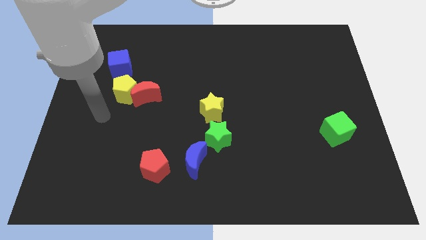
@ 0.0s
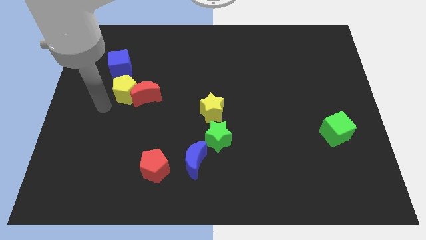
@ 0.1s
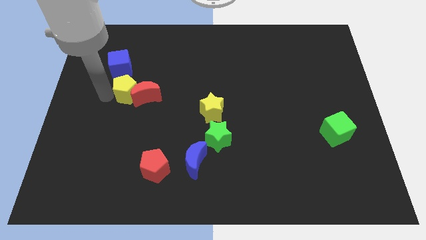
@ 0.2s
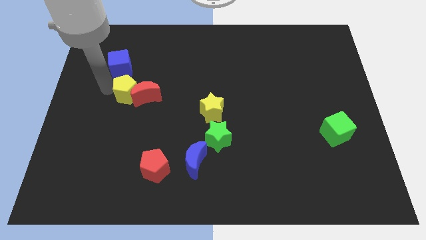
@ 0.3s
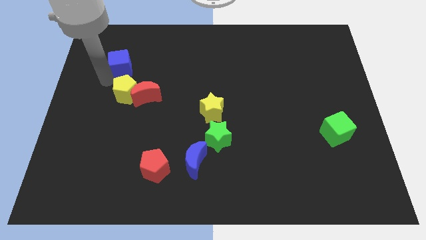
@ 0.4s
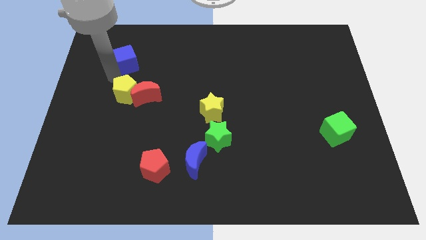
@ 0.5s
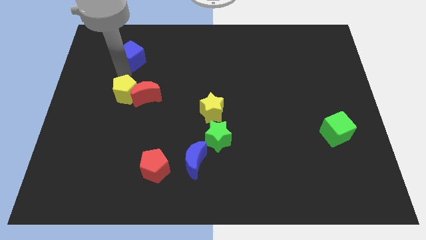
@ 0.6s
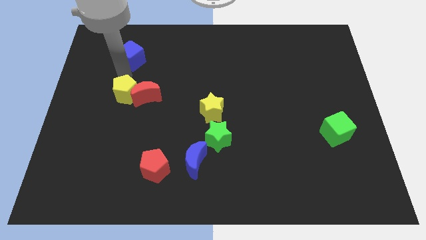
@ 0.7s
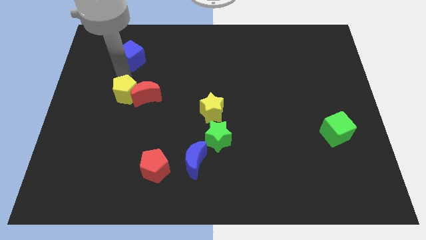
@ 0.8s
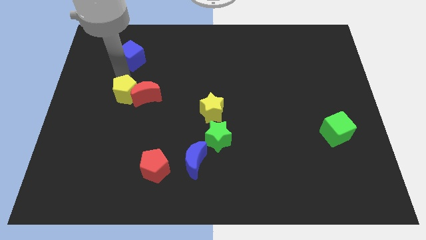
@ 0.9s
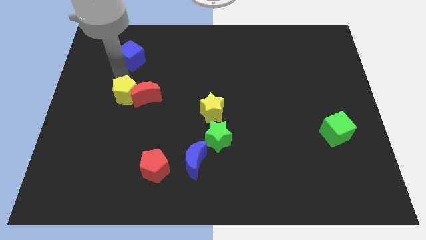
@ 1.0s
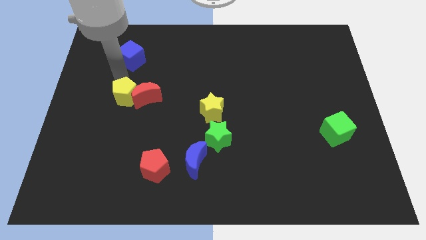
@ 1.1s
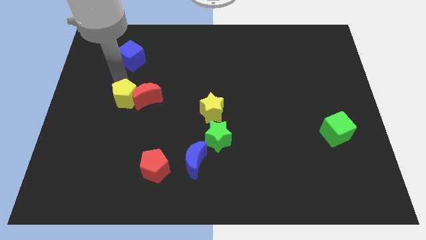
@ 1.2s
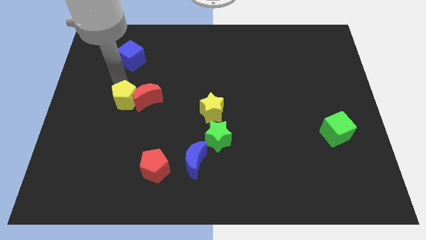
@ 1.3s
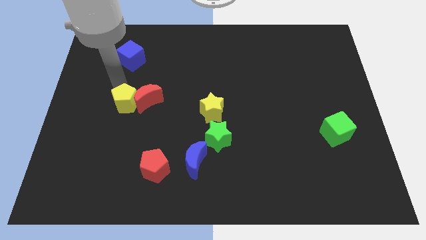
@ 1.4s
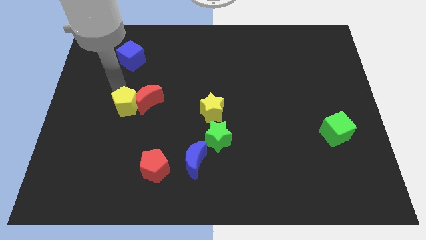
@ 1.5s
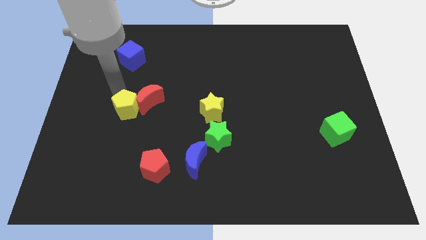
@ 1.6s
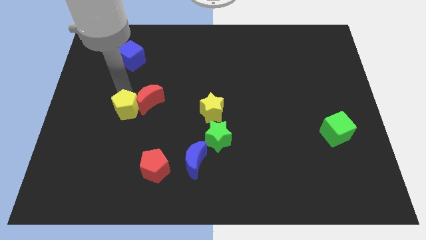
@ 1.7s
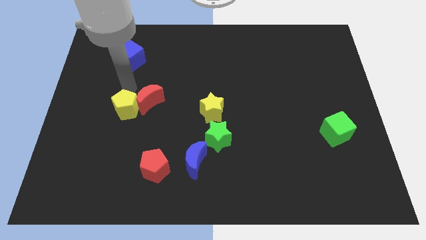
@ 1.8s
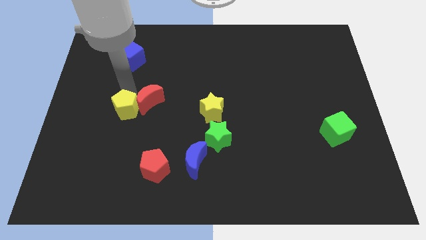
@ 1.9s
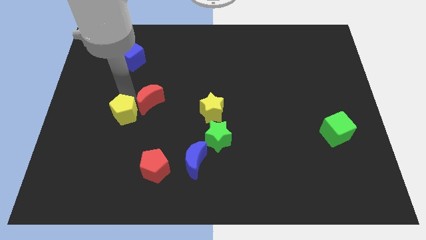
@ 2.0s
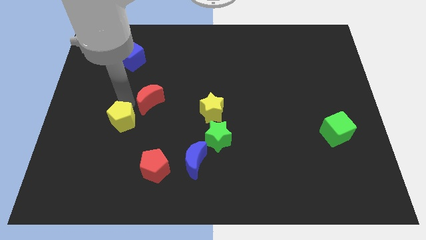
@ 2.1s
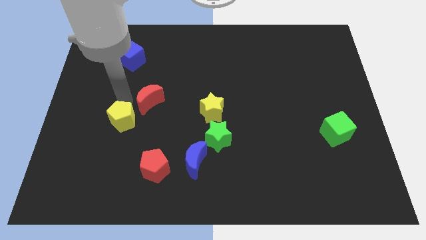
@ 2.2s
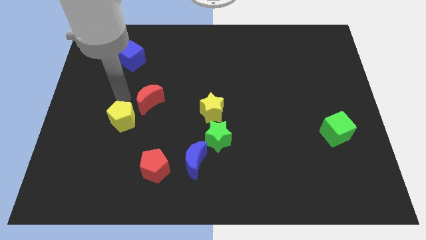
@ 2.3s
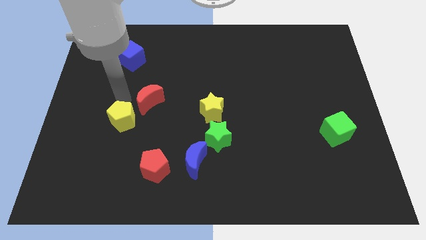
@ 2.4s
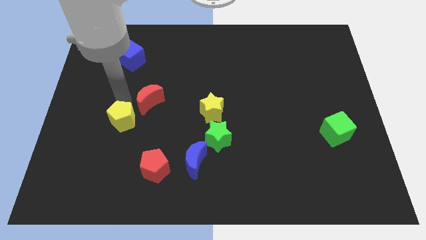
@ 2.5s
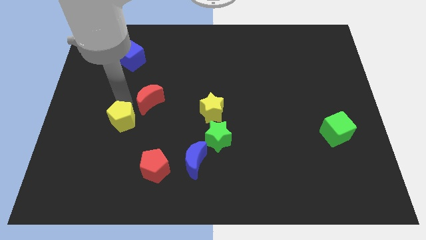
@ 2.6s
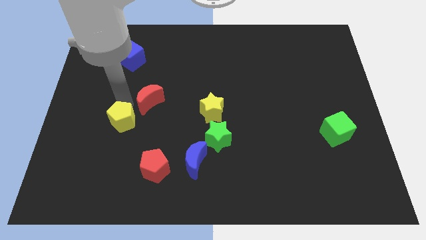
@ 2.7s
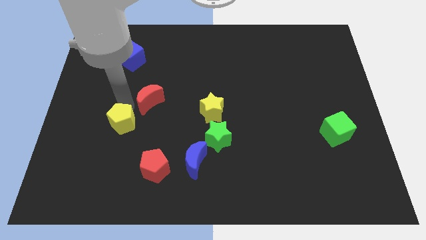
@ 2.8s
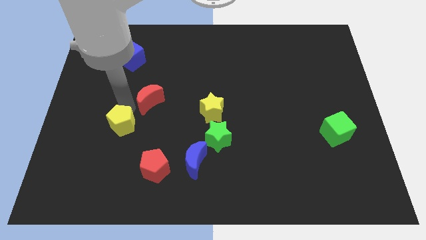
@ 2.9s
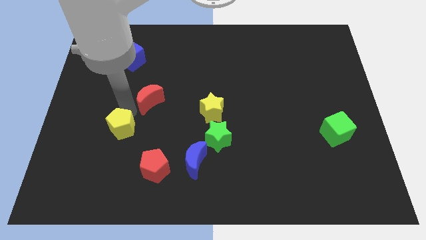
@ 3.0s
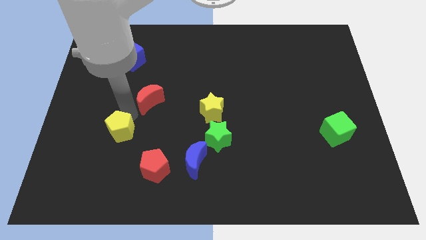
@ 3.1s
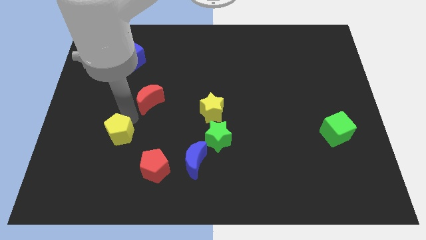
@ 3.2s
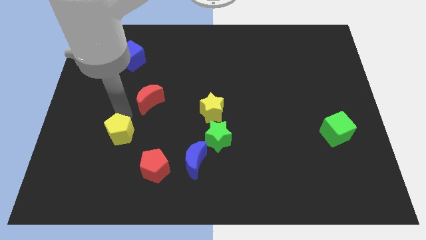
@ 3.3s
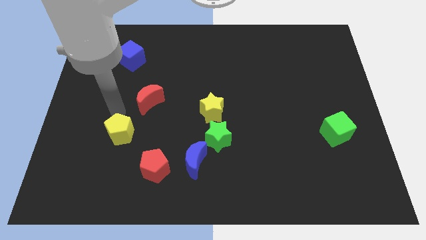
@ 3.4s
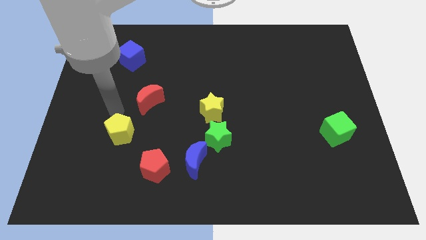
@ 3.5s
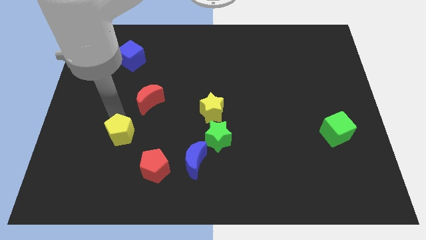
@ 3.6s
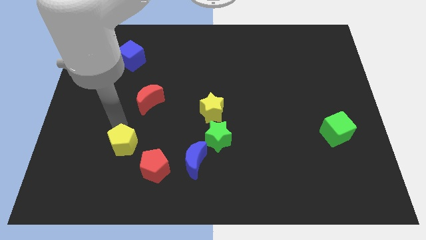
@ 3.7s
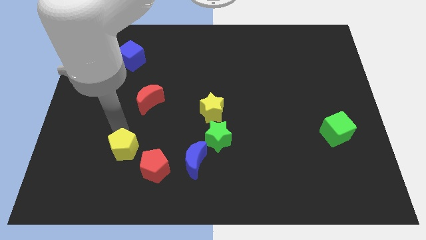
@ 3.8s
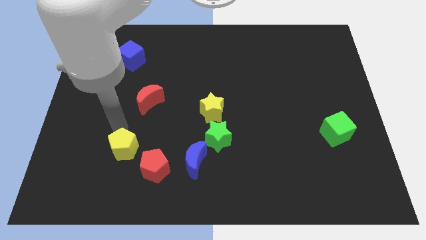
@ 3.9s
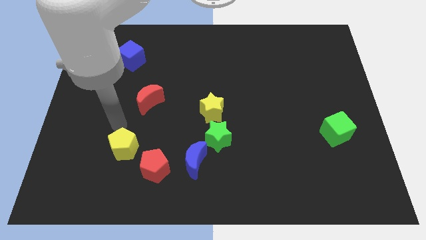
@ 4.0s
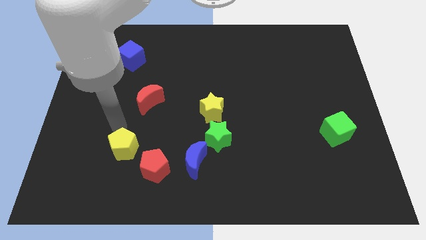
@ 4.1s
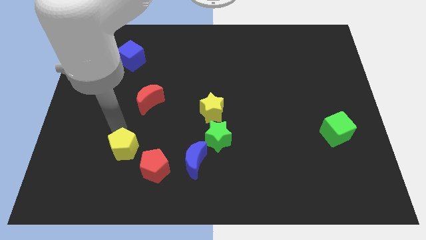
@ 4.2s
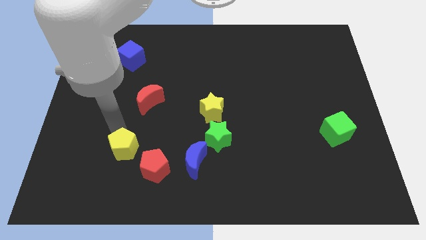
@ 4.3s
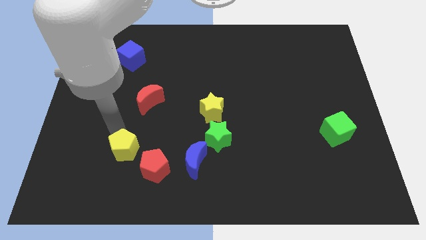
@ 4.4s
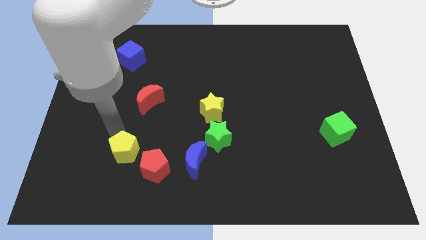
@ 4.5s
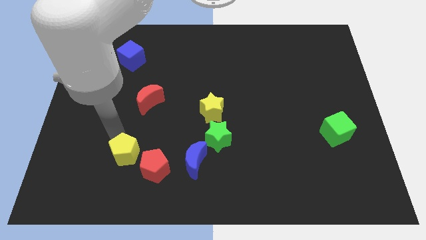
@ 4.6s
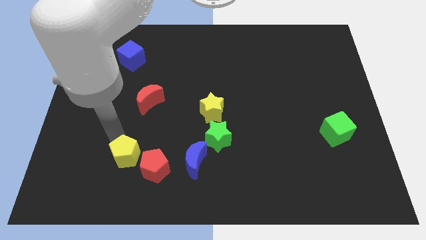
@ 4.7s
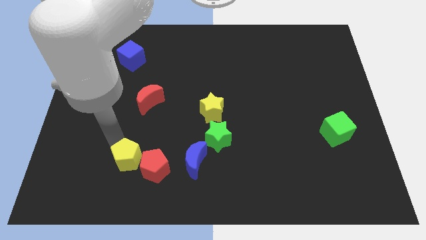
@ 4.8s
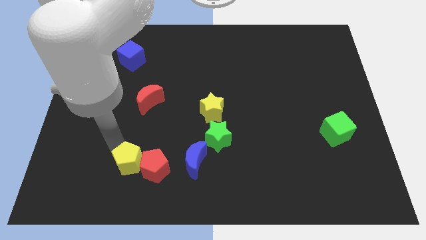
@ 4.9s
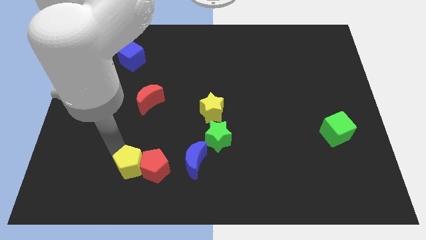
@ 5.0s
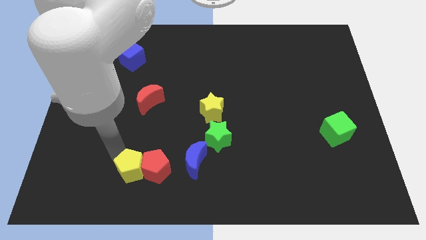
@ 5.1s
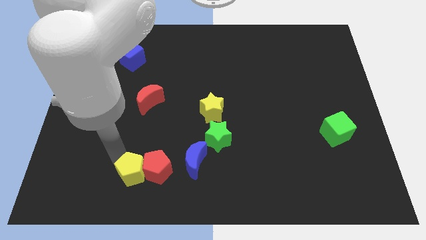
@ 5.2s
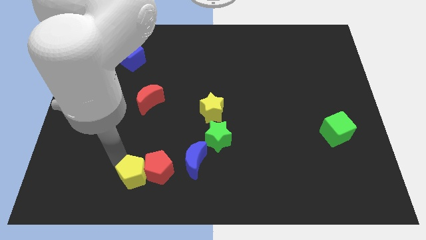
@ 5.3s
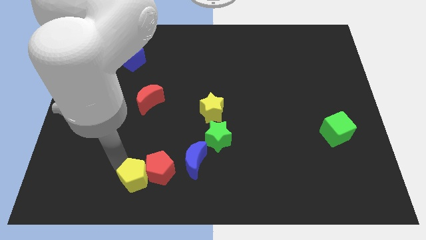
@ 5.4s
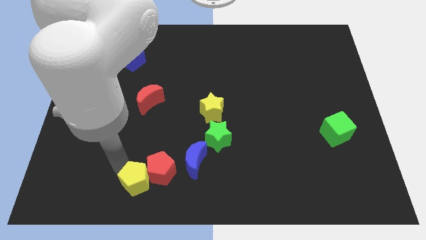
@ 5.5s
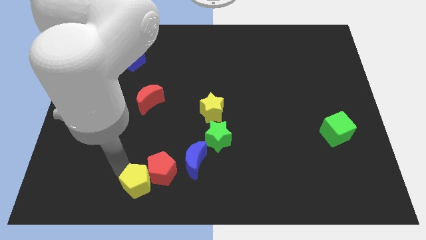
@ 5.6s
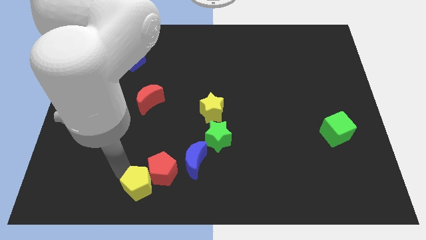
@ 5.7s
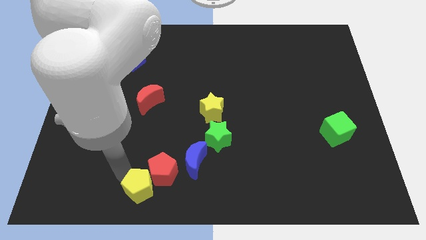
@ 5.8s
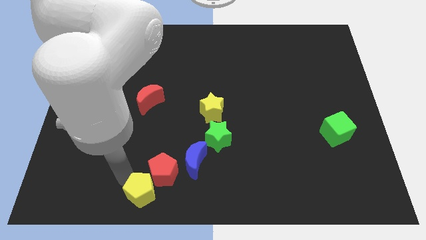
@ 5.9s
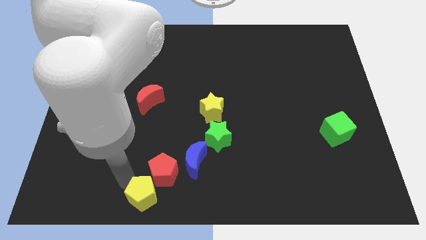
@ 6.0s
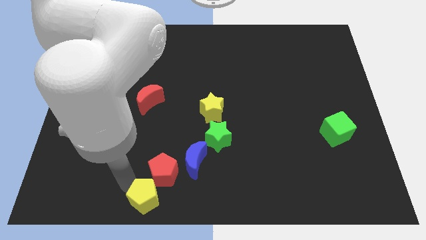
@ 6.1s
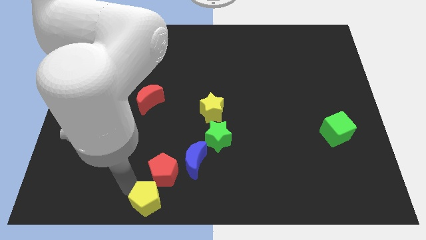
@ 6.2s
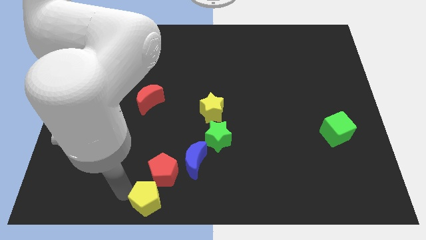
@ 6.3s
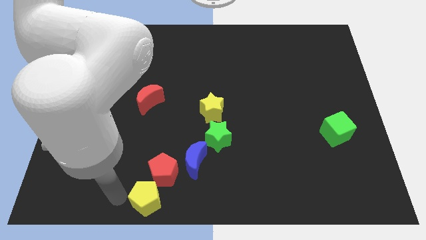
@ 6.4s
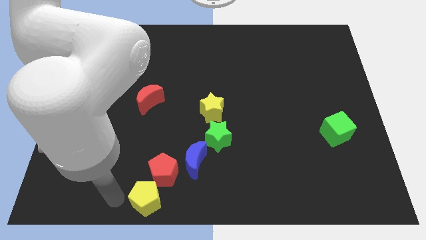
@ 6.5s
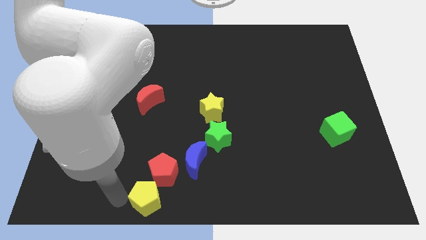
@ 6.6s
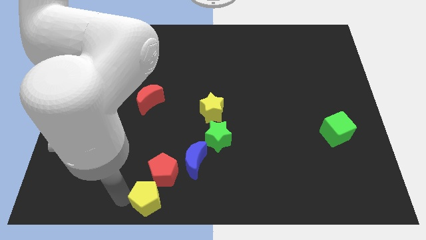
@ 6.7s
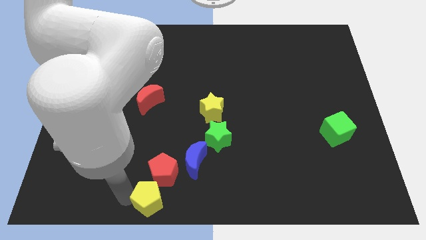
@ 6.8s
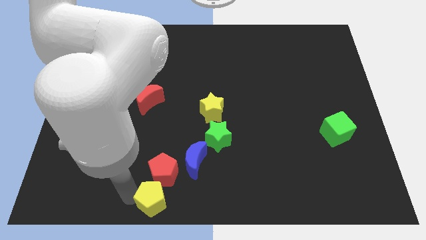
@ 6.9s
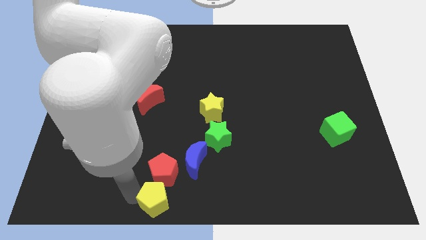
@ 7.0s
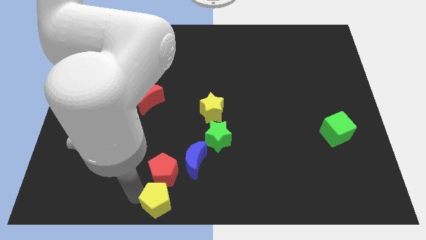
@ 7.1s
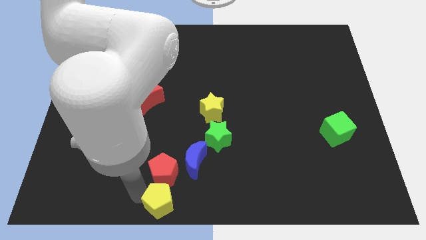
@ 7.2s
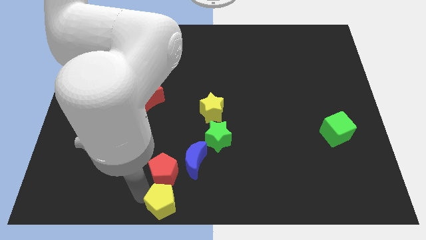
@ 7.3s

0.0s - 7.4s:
slide the yellow pentagon down and to the right diagonally

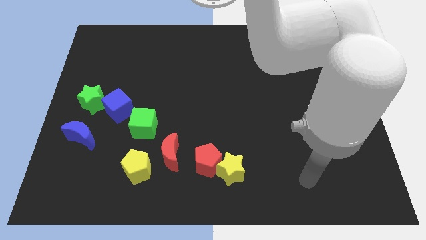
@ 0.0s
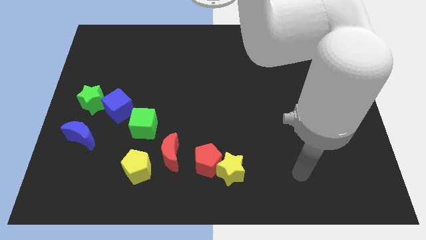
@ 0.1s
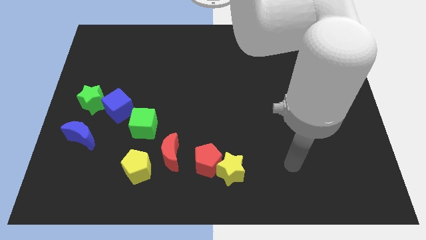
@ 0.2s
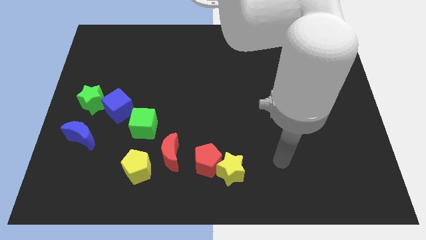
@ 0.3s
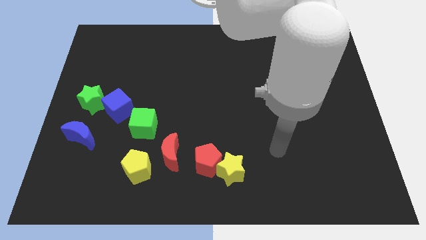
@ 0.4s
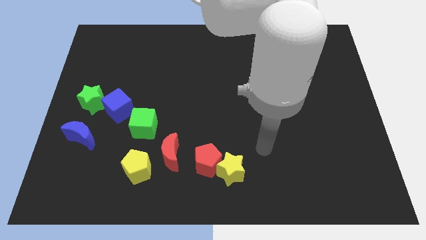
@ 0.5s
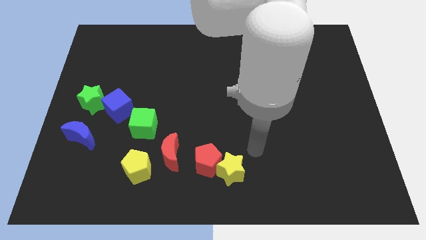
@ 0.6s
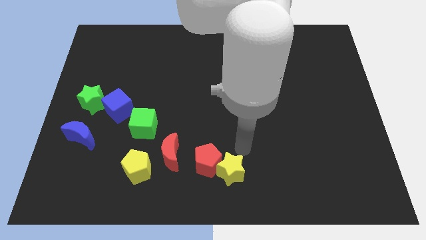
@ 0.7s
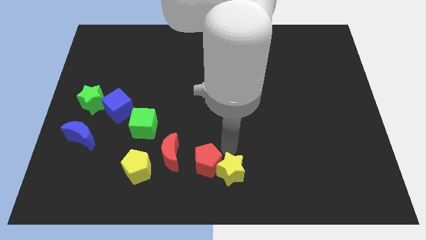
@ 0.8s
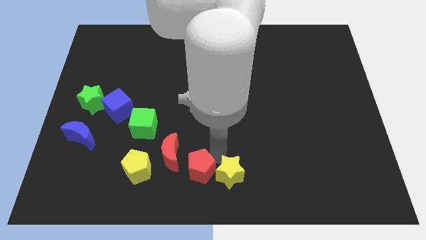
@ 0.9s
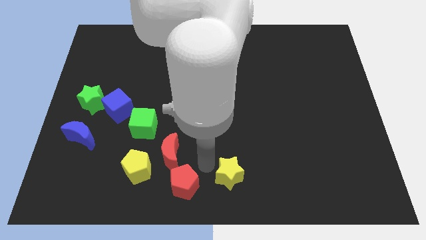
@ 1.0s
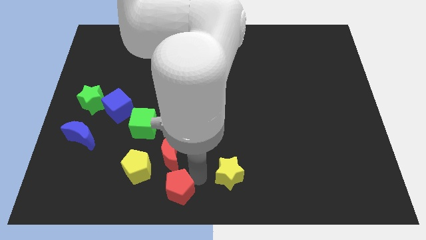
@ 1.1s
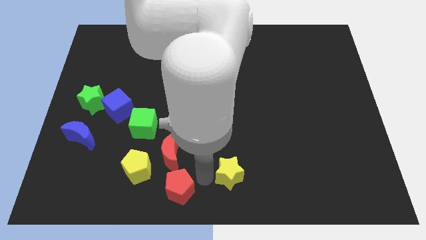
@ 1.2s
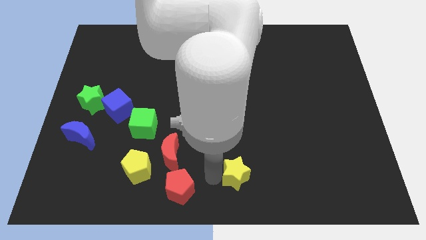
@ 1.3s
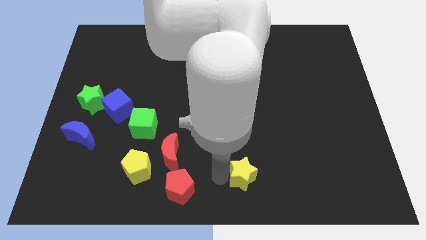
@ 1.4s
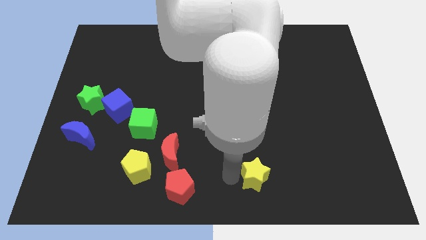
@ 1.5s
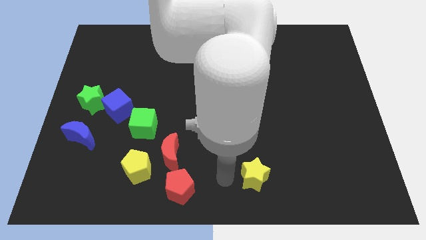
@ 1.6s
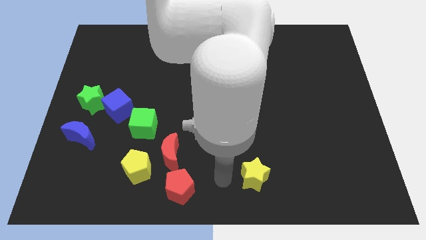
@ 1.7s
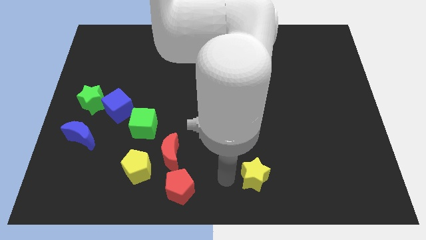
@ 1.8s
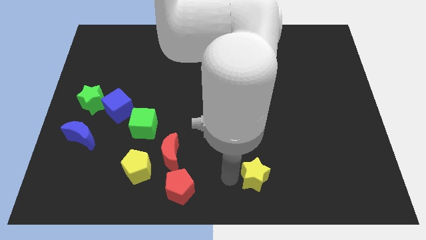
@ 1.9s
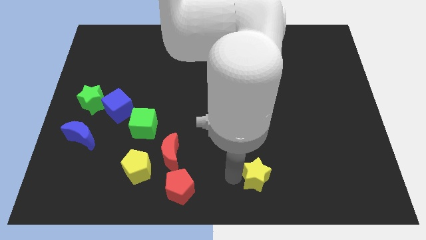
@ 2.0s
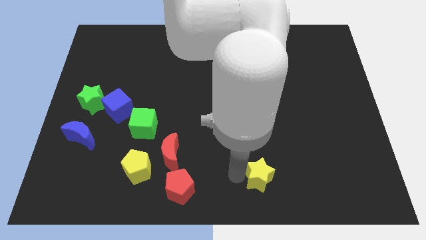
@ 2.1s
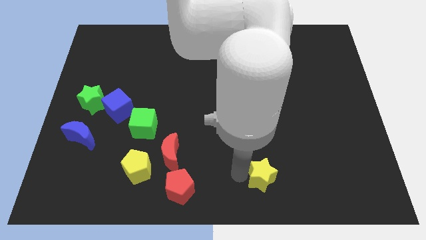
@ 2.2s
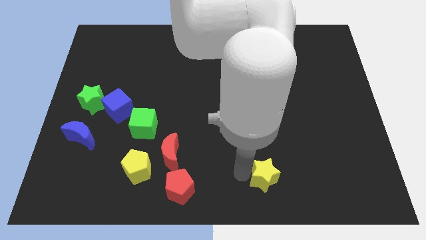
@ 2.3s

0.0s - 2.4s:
slightly push the yellow star right
